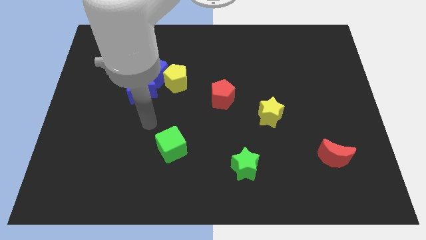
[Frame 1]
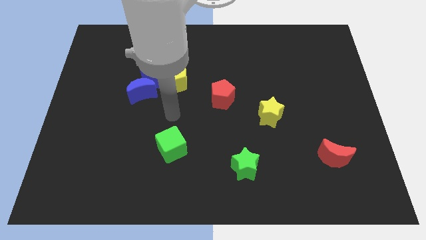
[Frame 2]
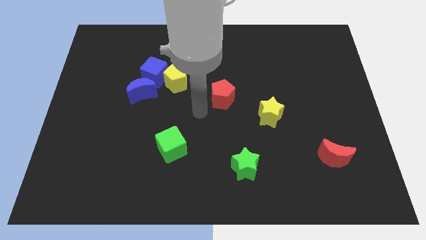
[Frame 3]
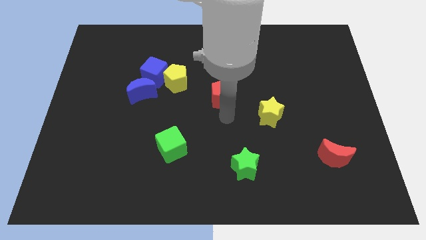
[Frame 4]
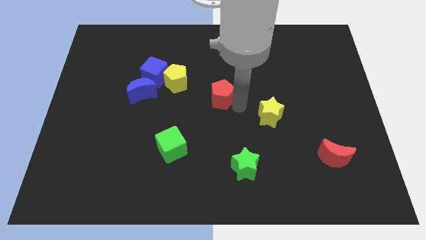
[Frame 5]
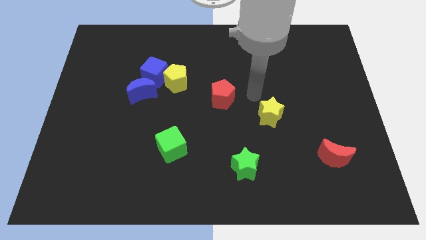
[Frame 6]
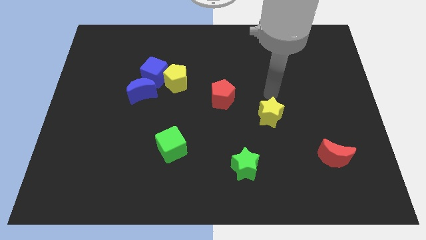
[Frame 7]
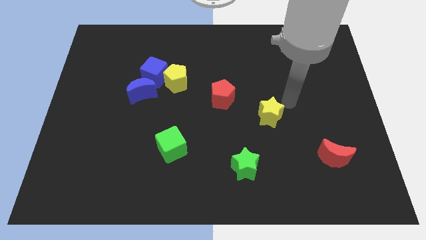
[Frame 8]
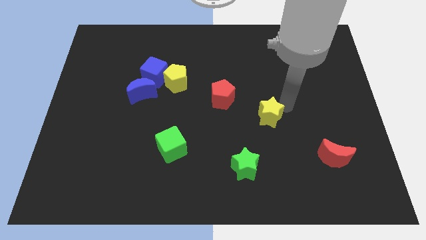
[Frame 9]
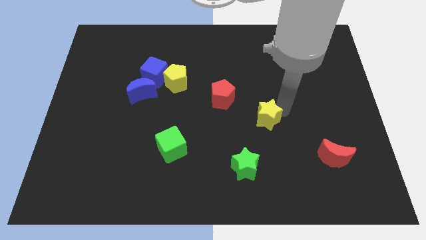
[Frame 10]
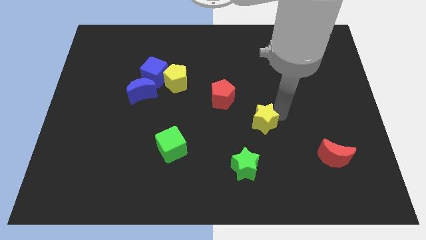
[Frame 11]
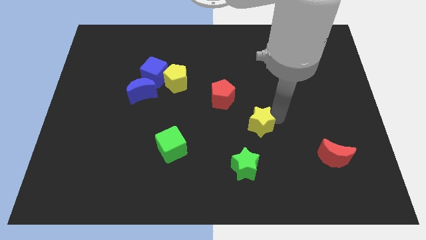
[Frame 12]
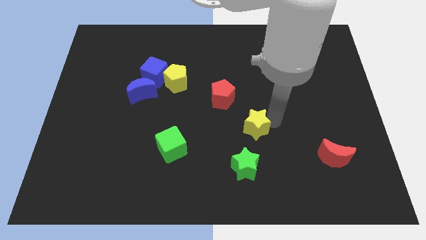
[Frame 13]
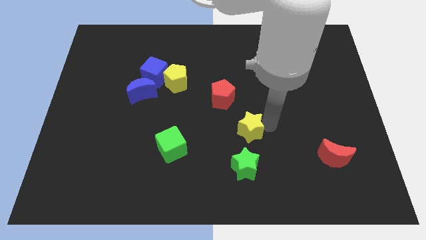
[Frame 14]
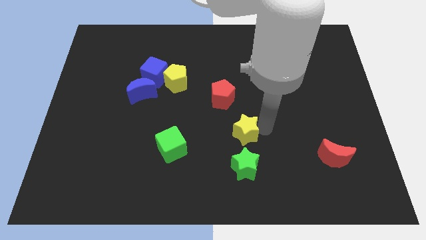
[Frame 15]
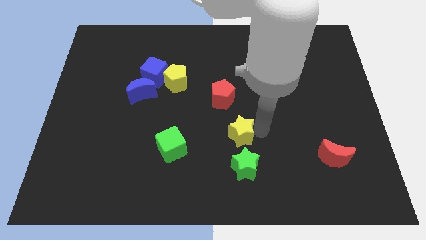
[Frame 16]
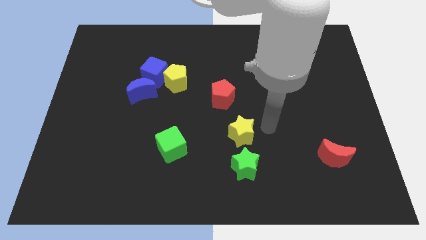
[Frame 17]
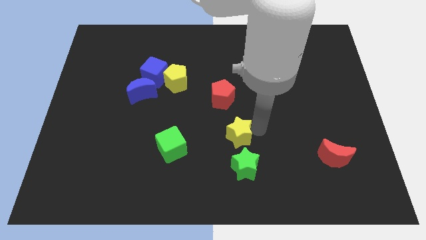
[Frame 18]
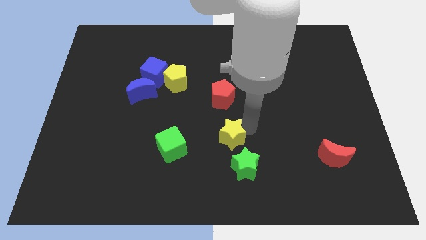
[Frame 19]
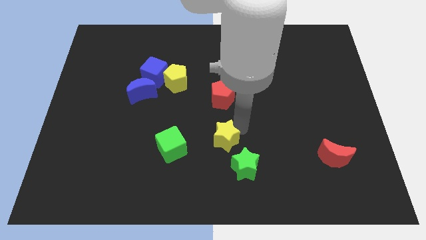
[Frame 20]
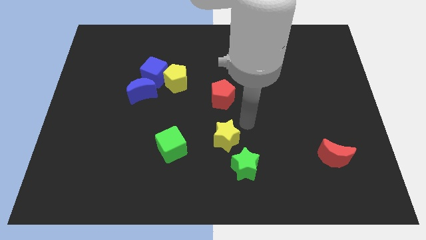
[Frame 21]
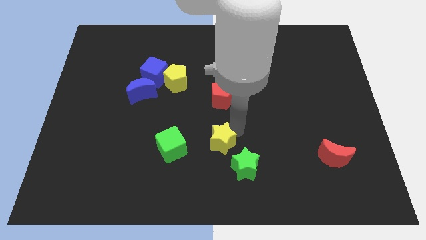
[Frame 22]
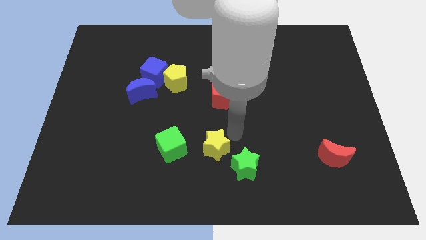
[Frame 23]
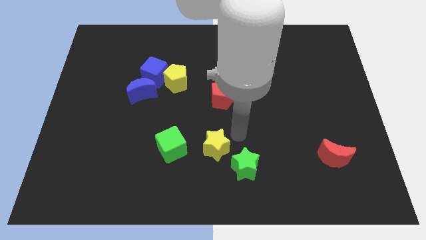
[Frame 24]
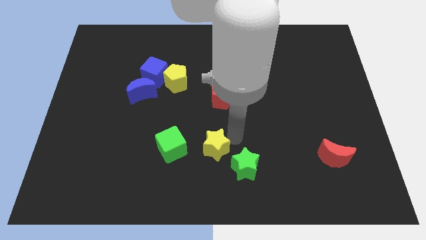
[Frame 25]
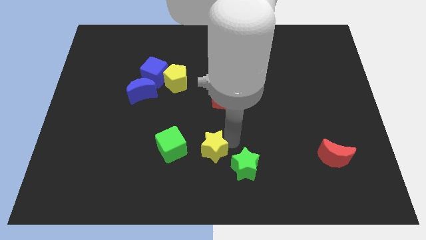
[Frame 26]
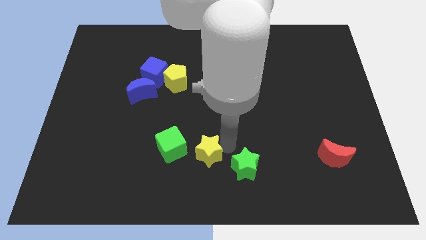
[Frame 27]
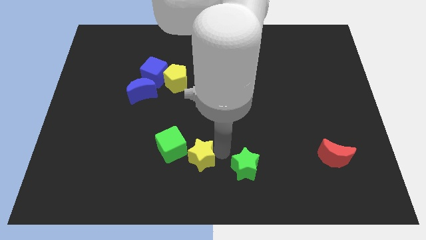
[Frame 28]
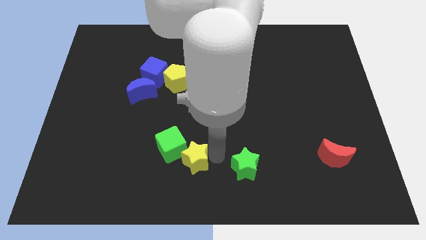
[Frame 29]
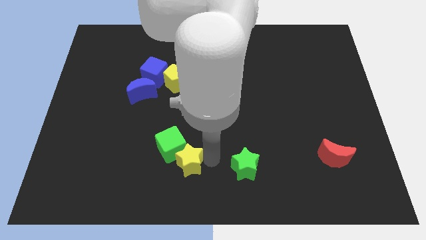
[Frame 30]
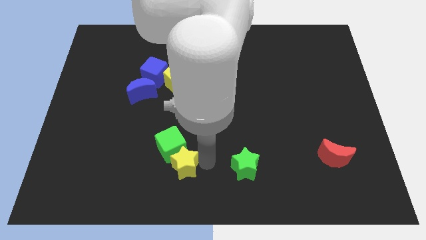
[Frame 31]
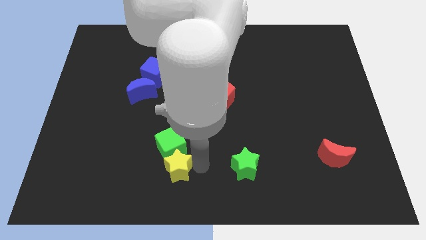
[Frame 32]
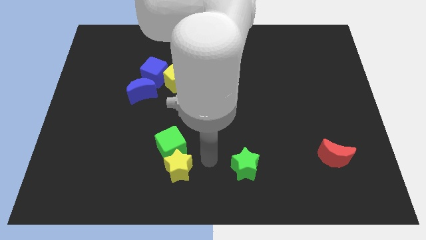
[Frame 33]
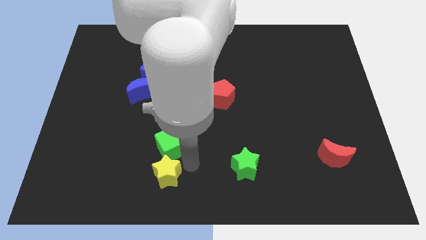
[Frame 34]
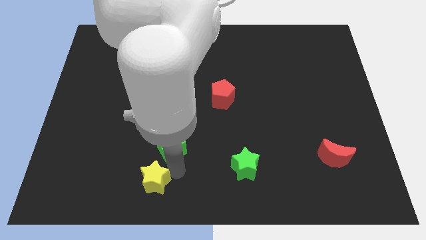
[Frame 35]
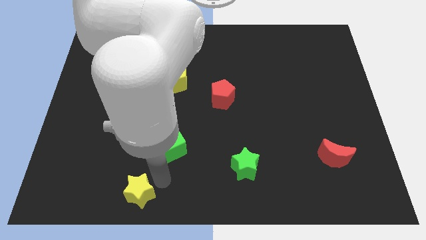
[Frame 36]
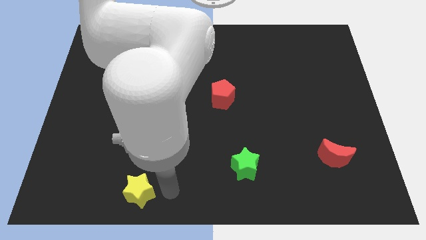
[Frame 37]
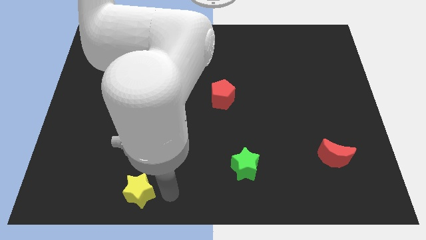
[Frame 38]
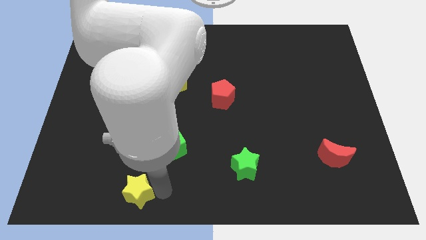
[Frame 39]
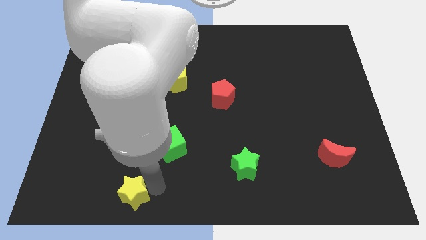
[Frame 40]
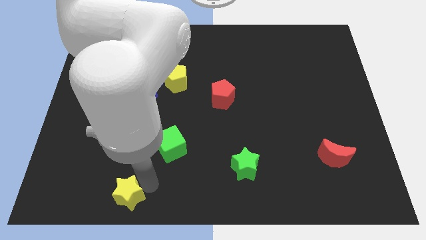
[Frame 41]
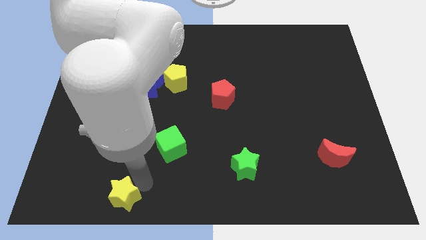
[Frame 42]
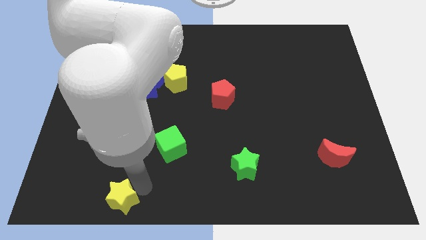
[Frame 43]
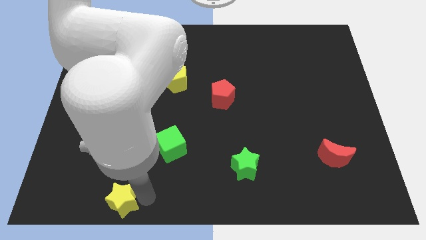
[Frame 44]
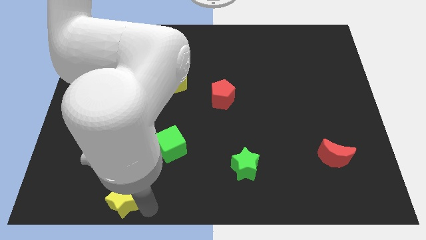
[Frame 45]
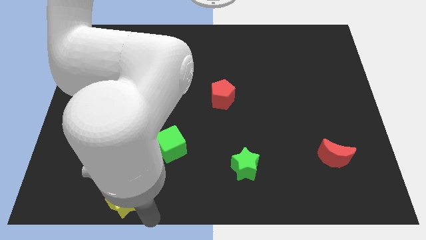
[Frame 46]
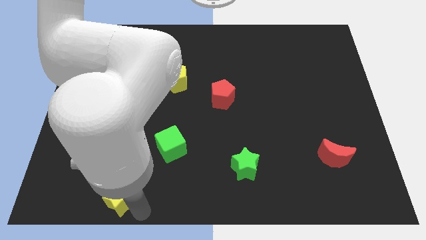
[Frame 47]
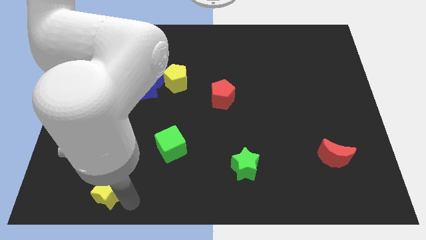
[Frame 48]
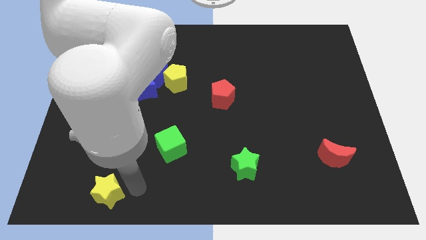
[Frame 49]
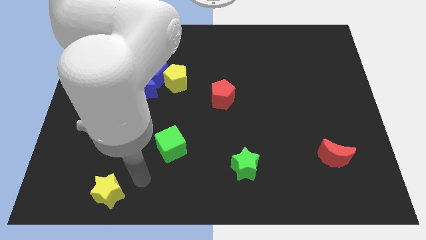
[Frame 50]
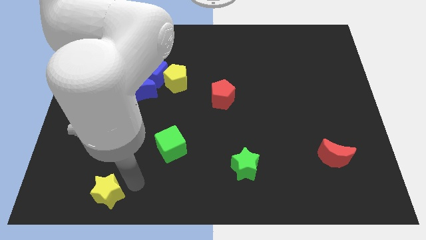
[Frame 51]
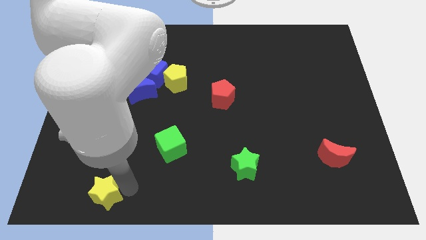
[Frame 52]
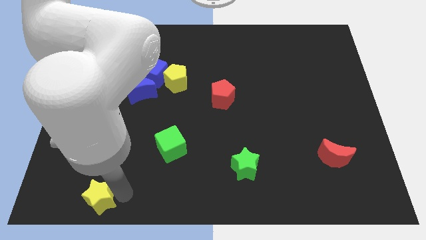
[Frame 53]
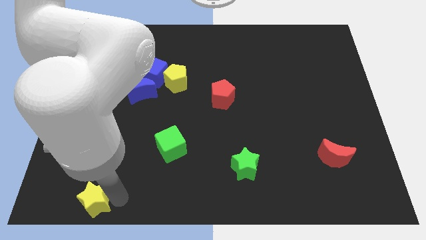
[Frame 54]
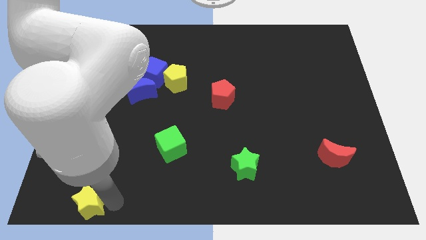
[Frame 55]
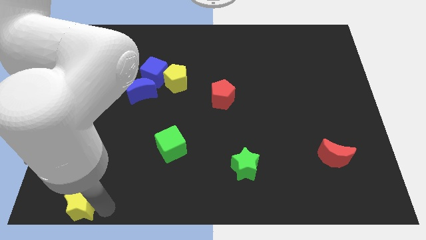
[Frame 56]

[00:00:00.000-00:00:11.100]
put the yellow star to the bottom left
